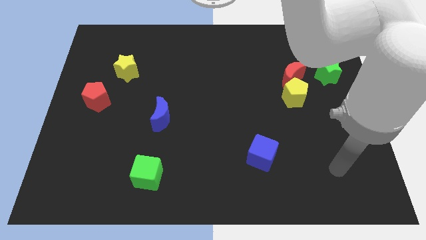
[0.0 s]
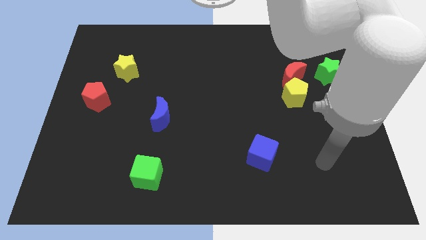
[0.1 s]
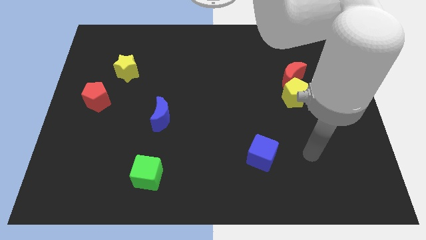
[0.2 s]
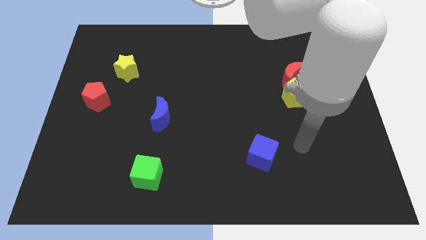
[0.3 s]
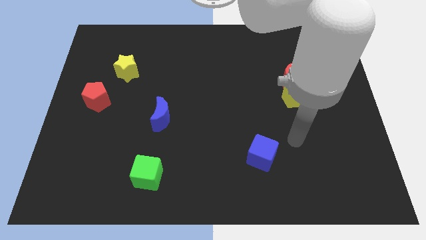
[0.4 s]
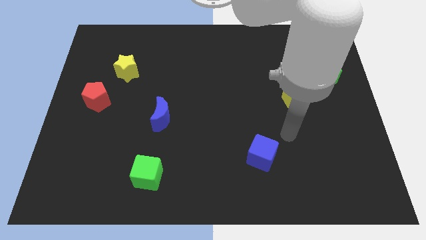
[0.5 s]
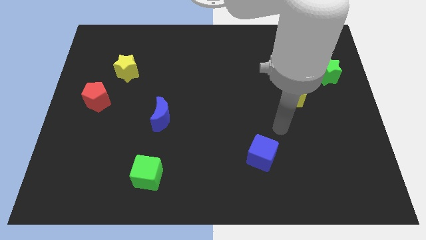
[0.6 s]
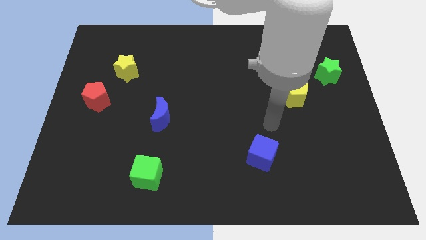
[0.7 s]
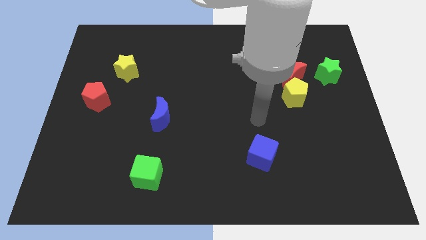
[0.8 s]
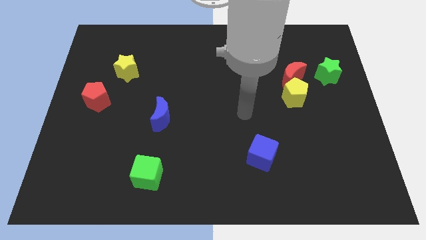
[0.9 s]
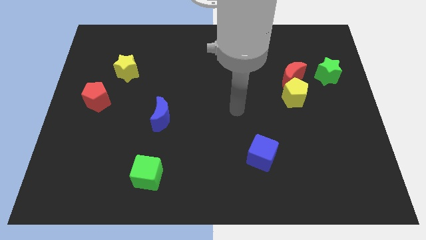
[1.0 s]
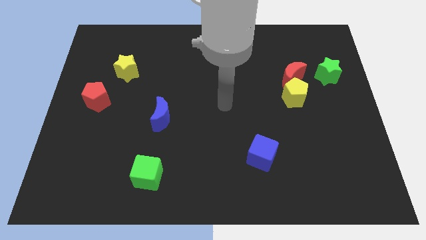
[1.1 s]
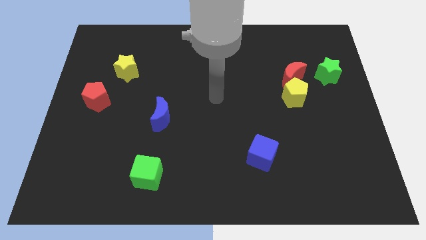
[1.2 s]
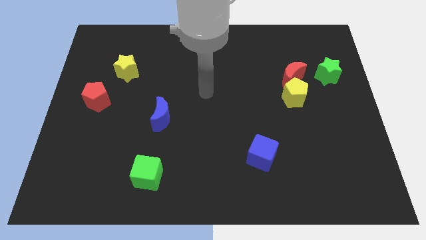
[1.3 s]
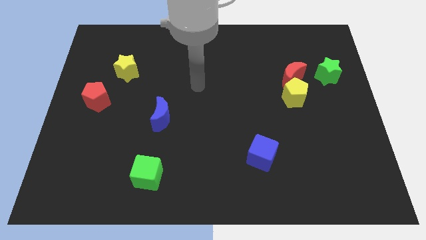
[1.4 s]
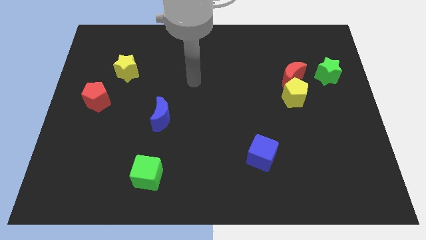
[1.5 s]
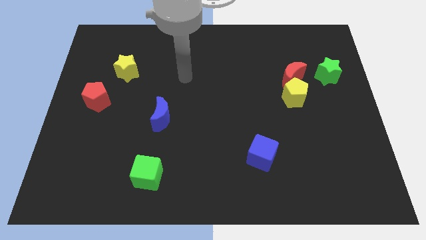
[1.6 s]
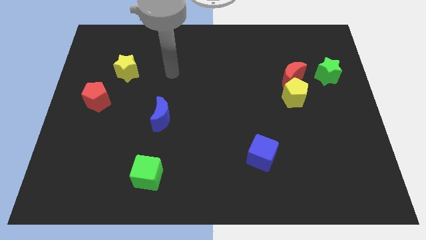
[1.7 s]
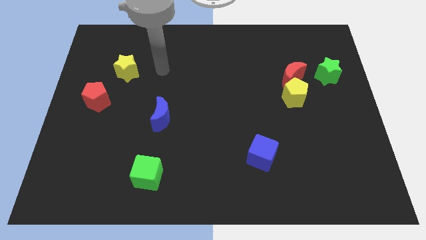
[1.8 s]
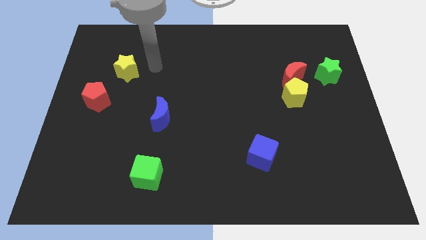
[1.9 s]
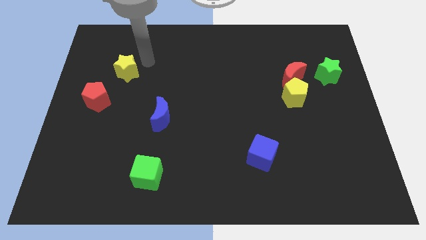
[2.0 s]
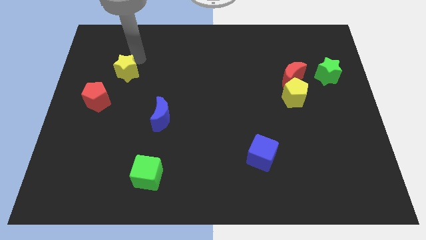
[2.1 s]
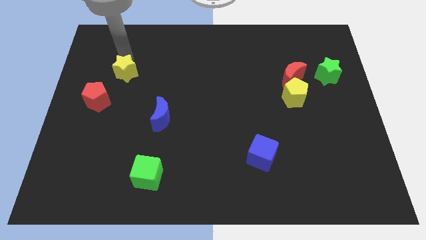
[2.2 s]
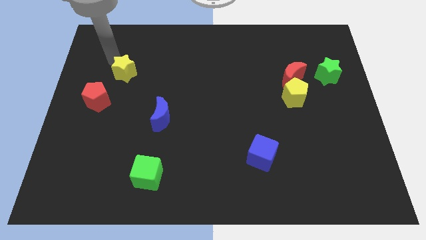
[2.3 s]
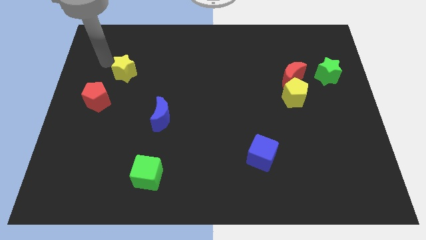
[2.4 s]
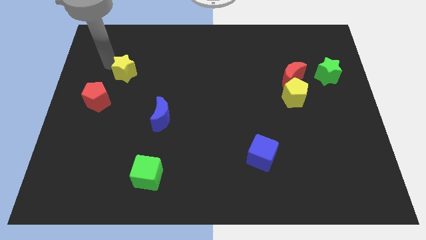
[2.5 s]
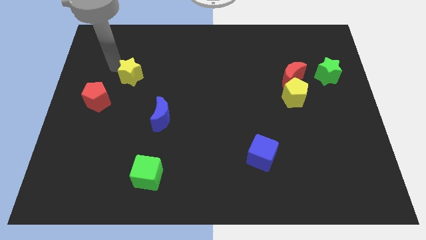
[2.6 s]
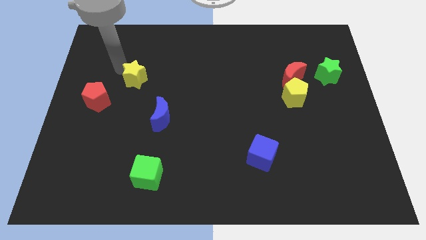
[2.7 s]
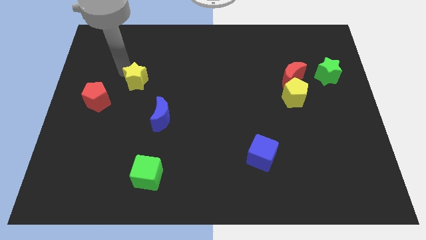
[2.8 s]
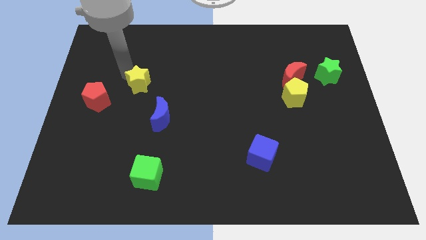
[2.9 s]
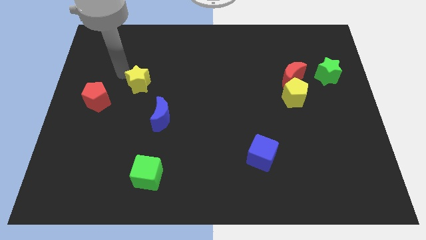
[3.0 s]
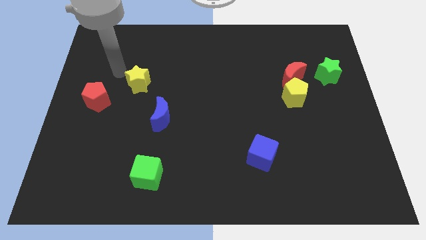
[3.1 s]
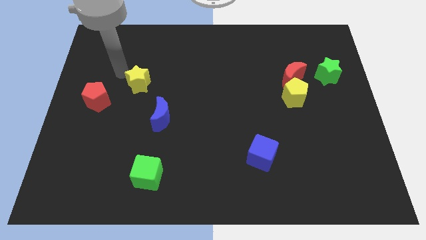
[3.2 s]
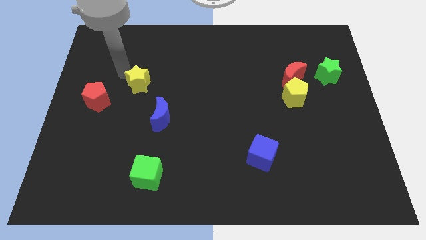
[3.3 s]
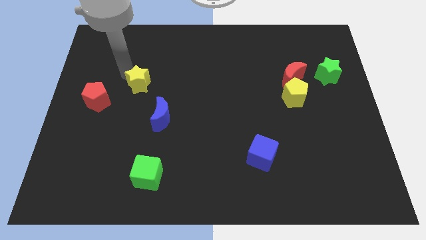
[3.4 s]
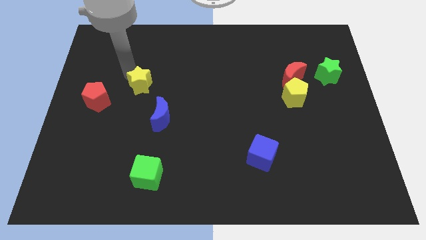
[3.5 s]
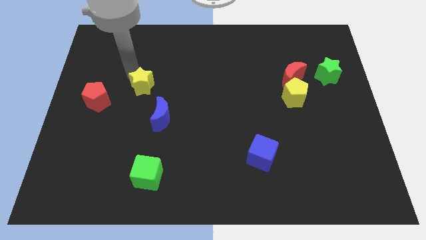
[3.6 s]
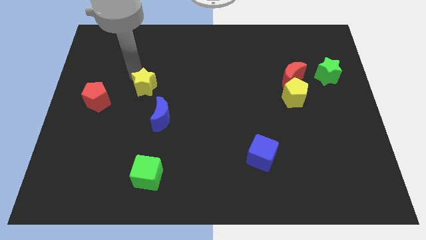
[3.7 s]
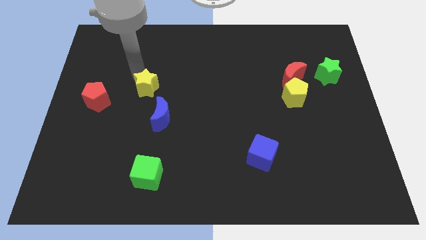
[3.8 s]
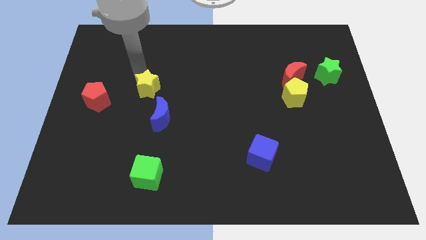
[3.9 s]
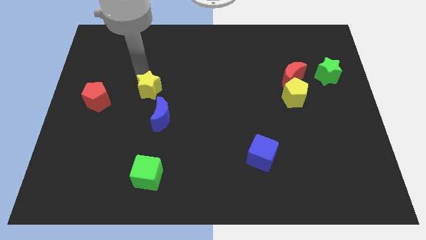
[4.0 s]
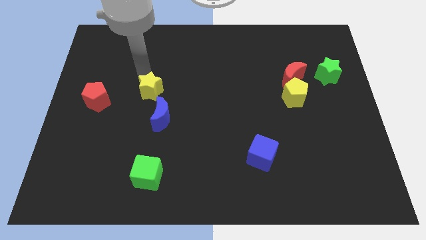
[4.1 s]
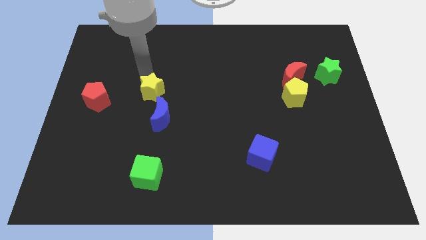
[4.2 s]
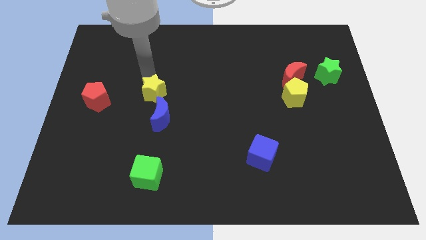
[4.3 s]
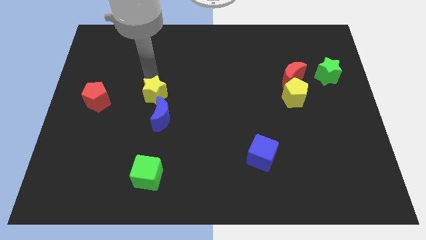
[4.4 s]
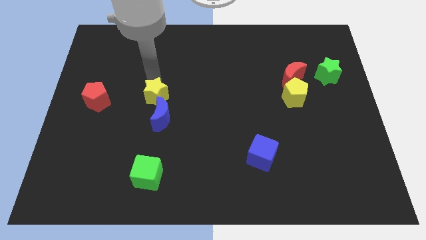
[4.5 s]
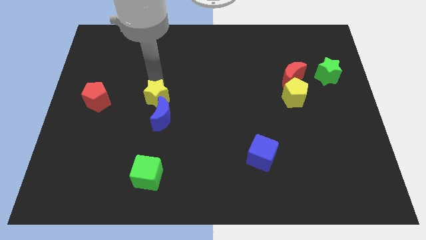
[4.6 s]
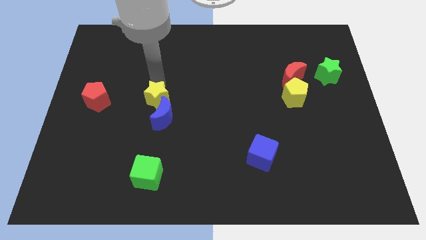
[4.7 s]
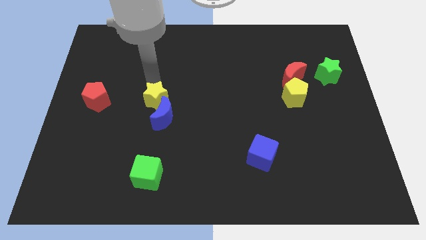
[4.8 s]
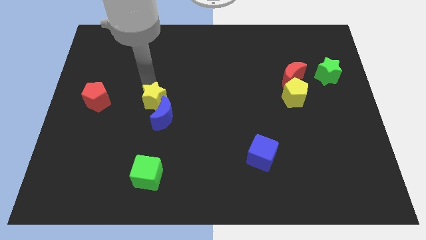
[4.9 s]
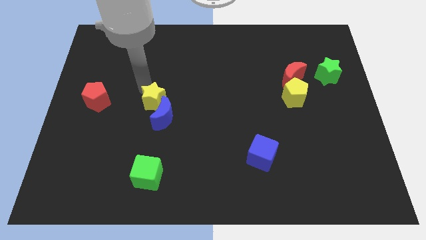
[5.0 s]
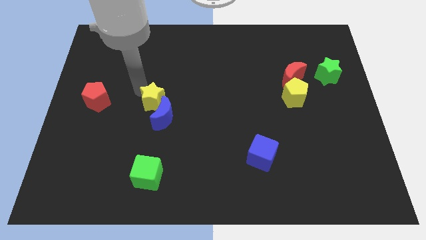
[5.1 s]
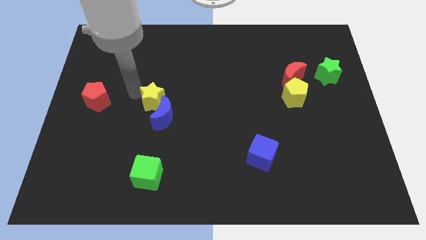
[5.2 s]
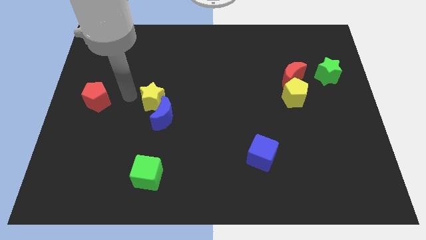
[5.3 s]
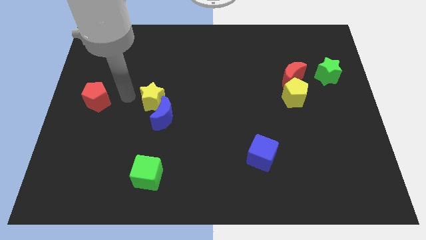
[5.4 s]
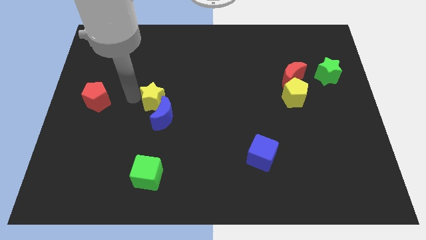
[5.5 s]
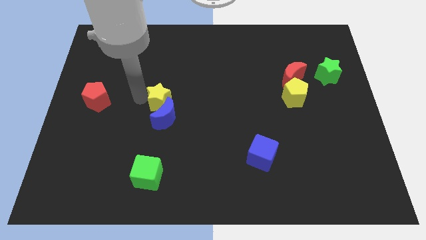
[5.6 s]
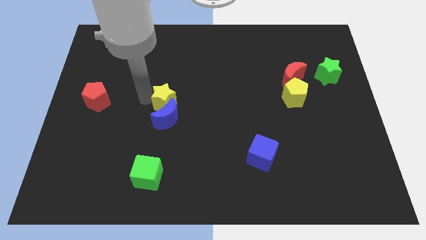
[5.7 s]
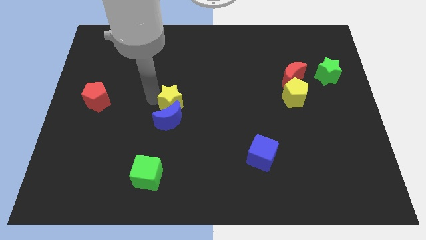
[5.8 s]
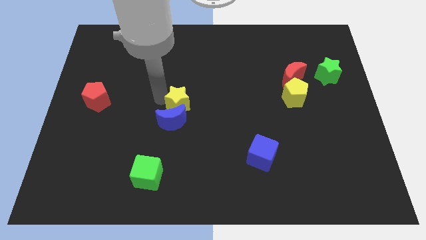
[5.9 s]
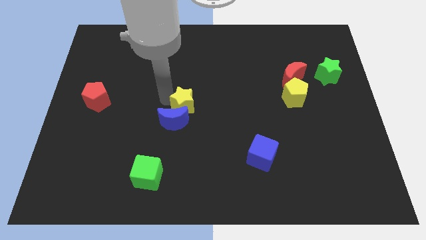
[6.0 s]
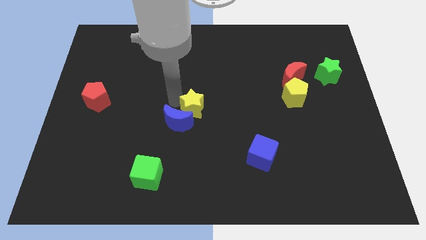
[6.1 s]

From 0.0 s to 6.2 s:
push the yellow star to the right side of the blue moon

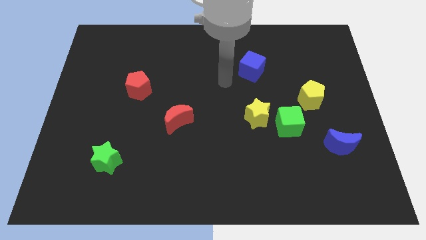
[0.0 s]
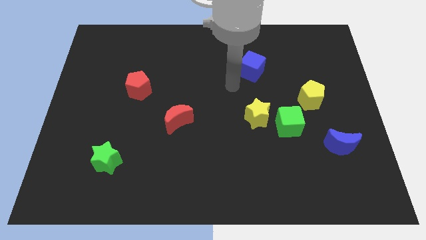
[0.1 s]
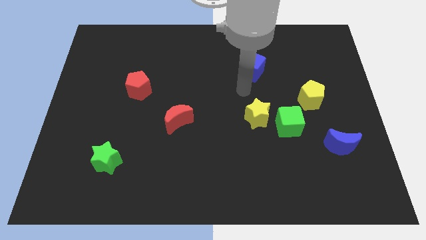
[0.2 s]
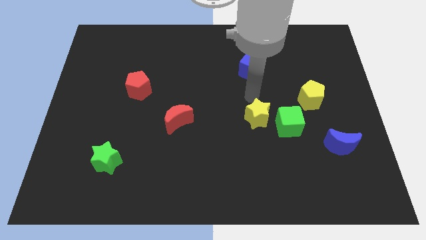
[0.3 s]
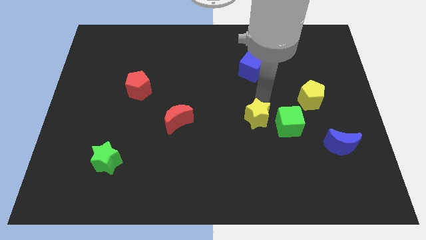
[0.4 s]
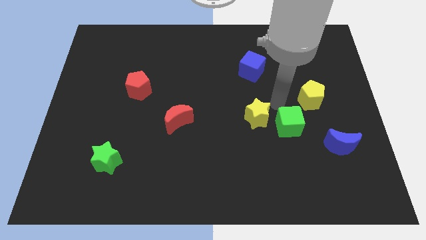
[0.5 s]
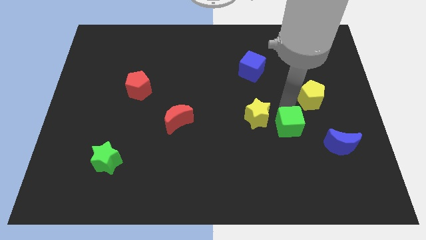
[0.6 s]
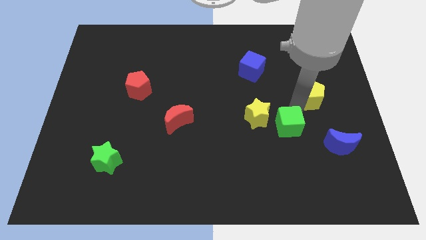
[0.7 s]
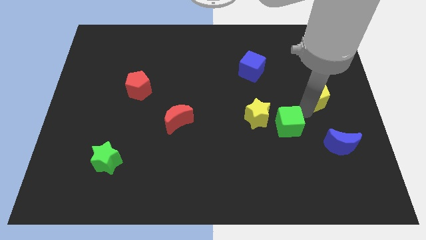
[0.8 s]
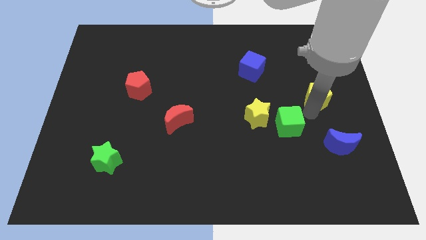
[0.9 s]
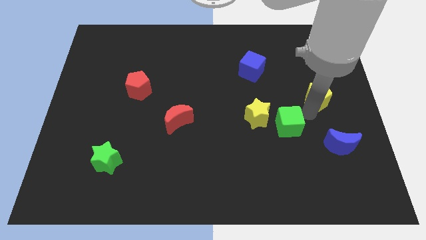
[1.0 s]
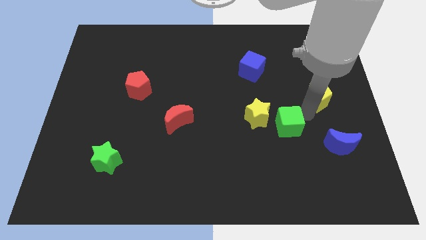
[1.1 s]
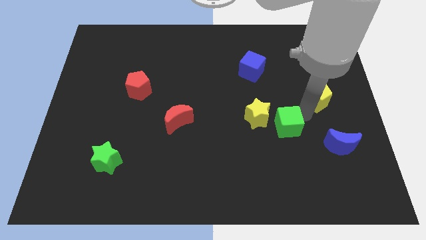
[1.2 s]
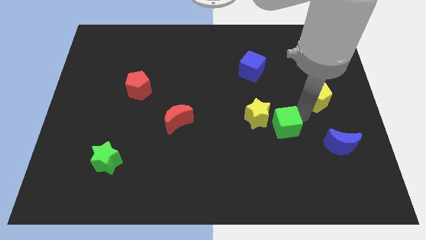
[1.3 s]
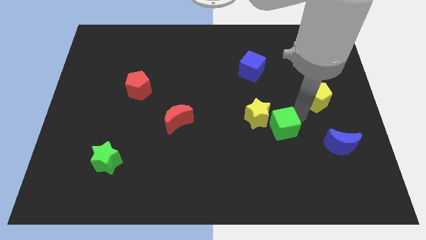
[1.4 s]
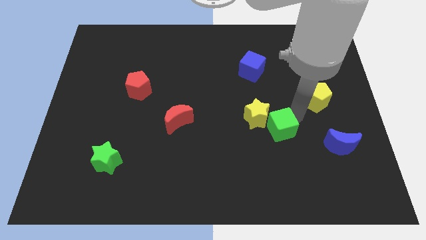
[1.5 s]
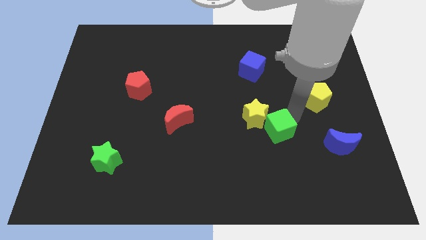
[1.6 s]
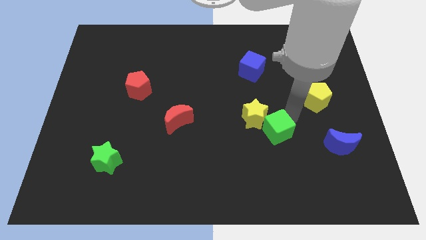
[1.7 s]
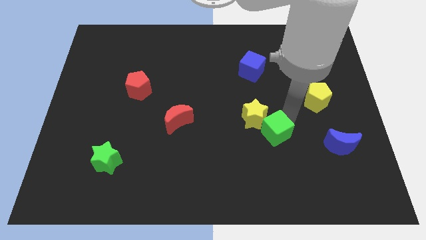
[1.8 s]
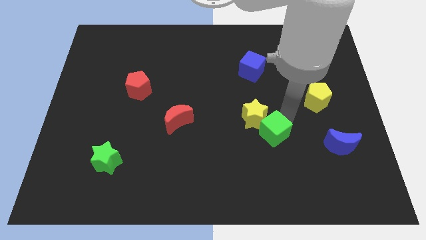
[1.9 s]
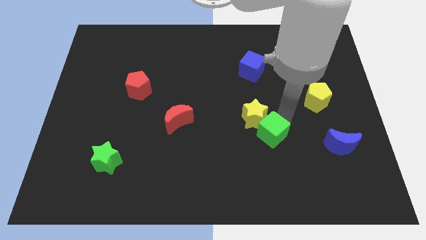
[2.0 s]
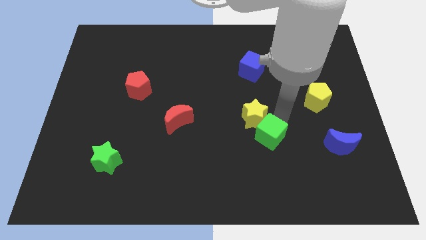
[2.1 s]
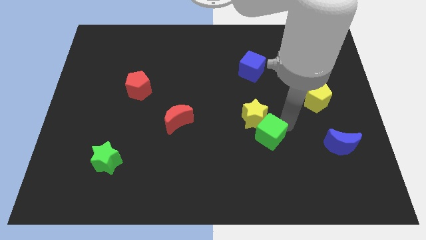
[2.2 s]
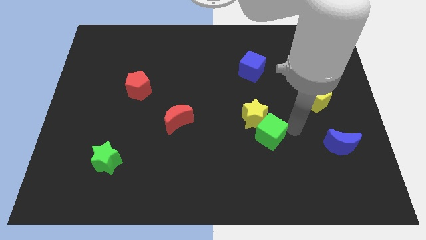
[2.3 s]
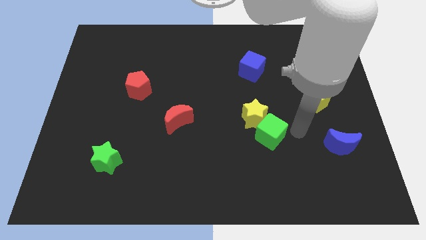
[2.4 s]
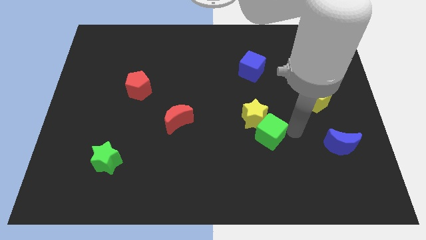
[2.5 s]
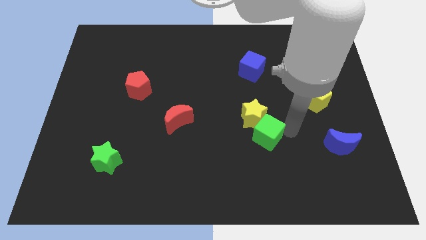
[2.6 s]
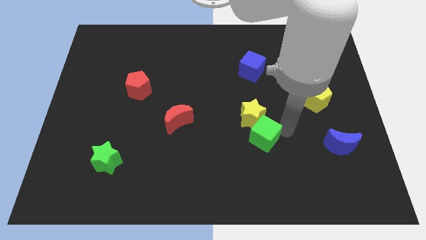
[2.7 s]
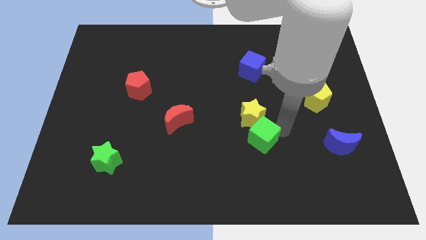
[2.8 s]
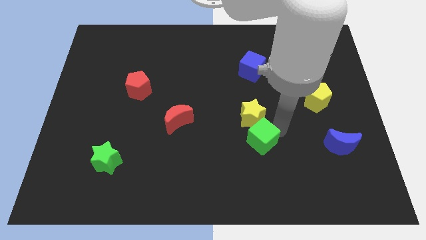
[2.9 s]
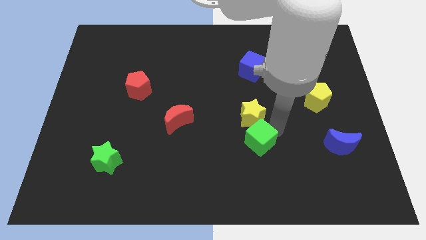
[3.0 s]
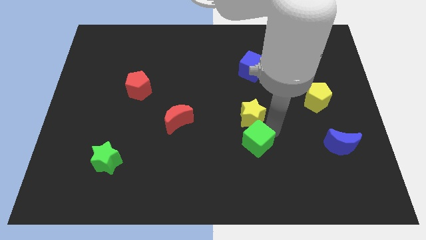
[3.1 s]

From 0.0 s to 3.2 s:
move the green cube to the bottom left of the yellow star
